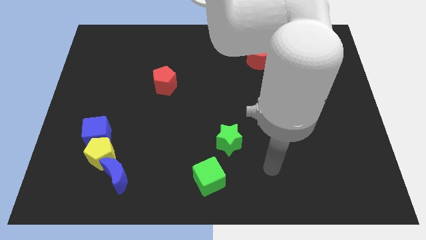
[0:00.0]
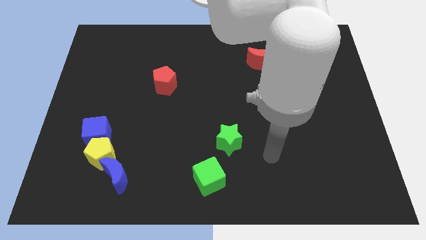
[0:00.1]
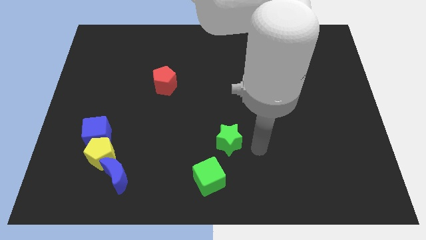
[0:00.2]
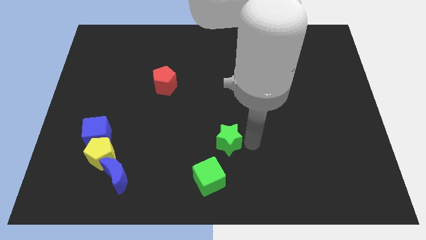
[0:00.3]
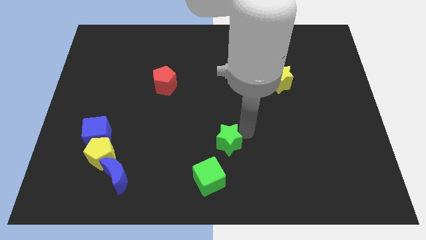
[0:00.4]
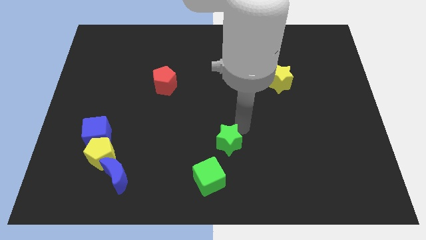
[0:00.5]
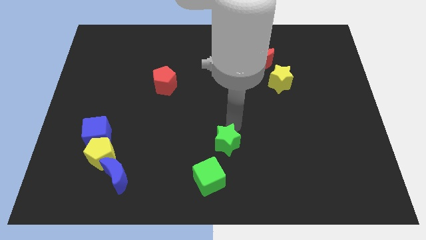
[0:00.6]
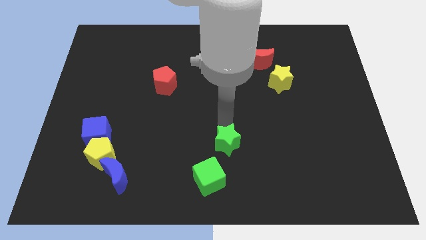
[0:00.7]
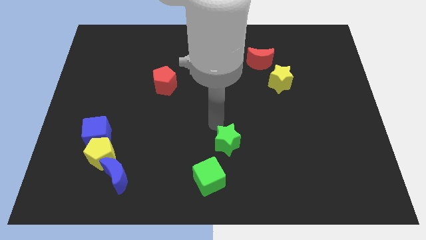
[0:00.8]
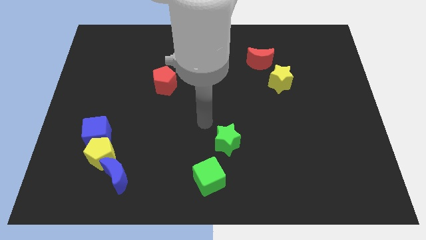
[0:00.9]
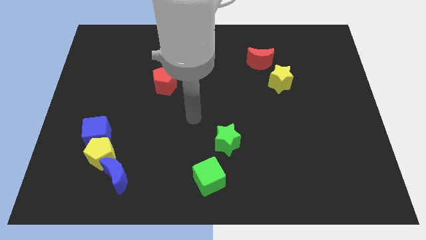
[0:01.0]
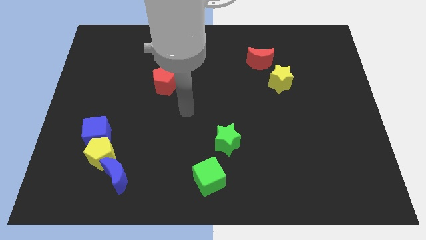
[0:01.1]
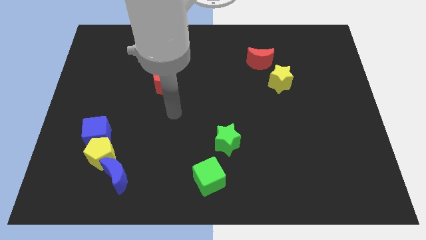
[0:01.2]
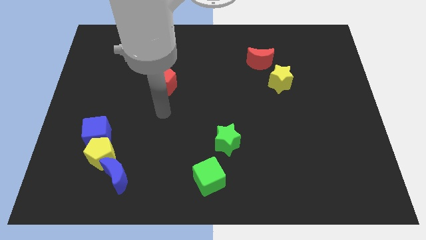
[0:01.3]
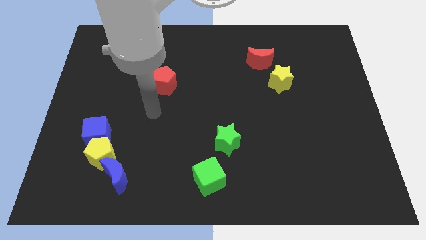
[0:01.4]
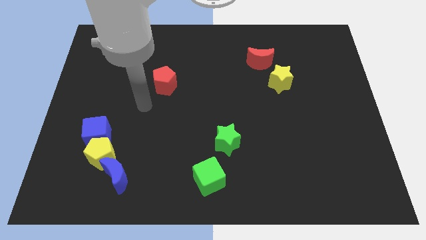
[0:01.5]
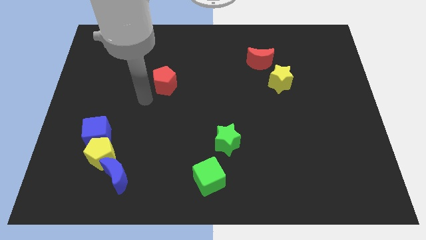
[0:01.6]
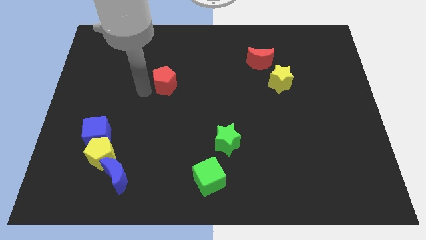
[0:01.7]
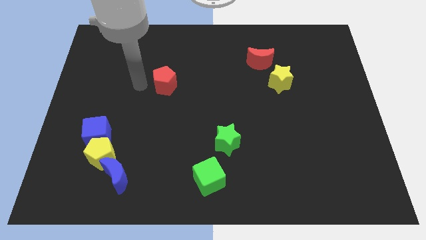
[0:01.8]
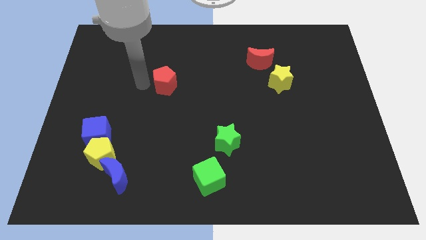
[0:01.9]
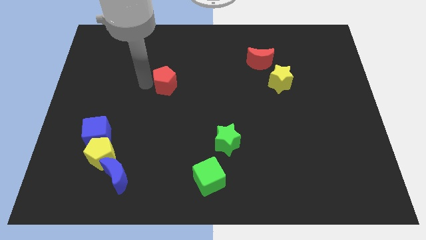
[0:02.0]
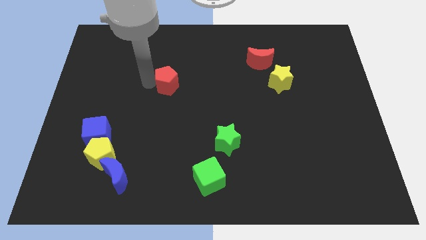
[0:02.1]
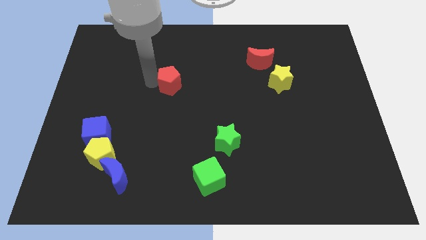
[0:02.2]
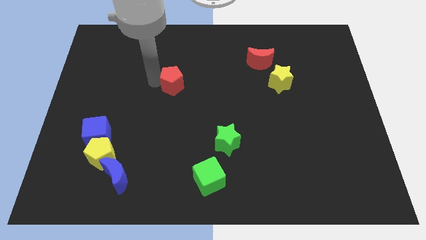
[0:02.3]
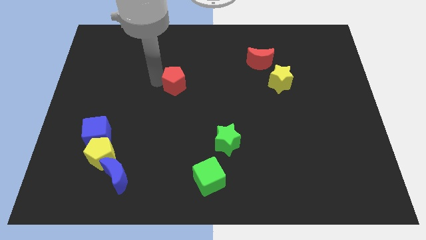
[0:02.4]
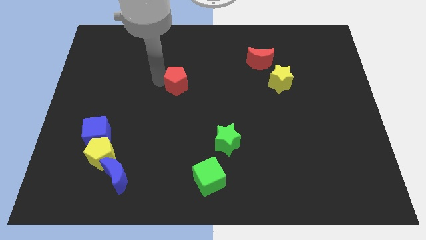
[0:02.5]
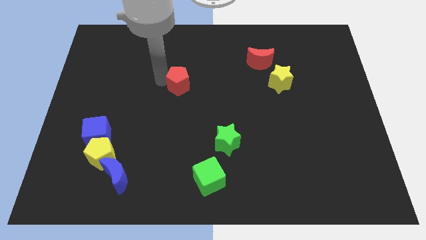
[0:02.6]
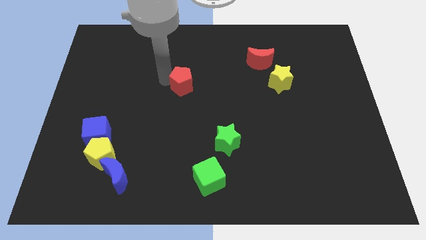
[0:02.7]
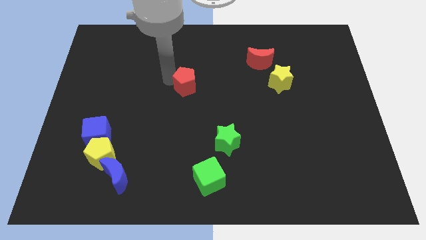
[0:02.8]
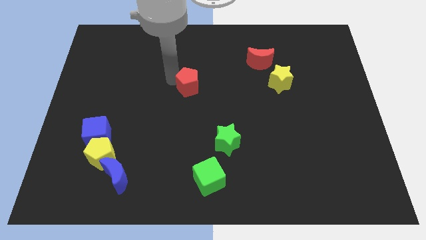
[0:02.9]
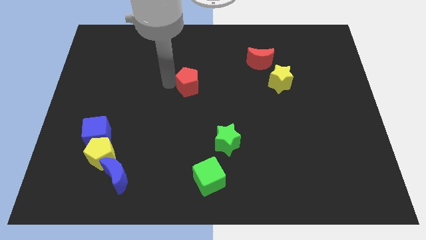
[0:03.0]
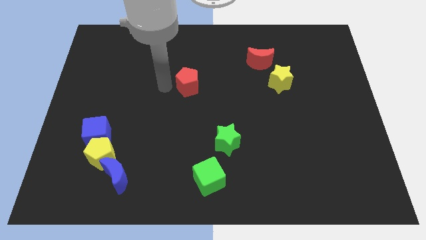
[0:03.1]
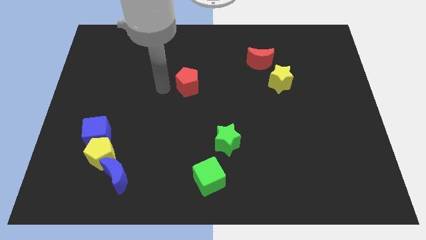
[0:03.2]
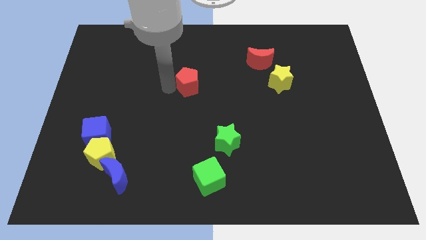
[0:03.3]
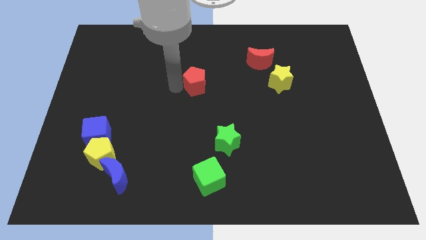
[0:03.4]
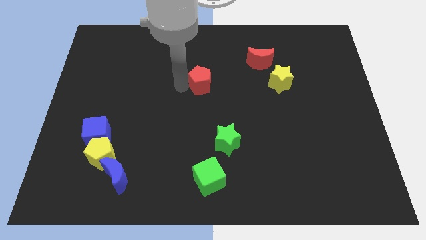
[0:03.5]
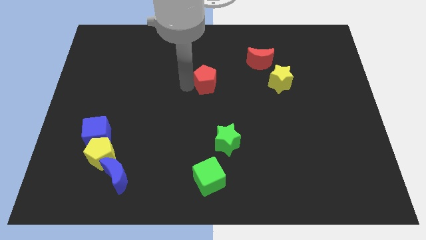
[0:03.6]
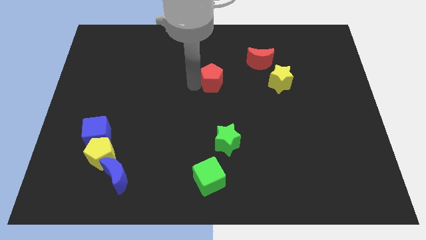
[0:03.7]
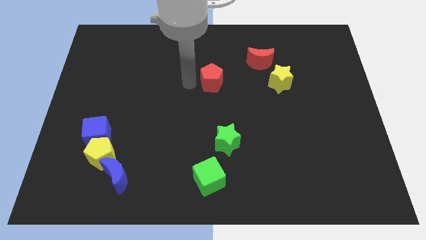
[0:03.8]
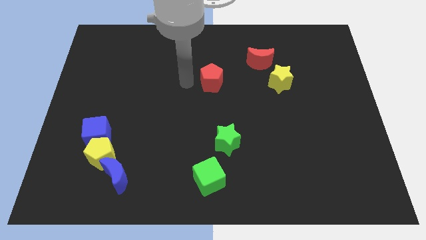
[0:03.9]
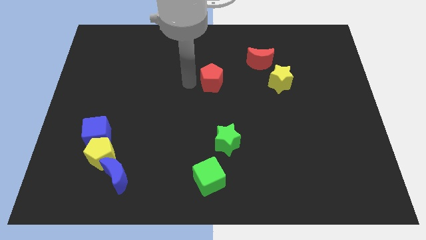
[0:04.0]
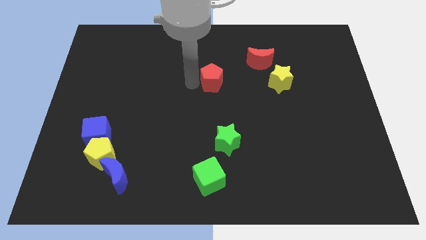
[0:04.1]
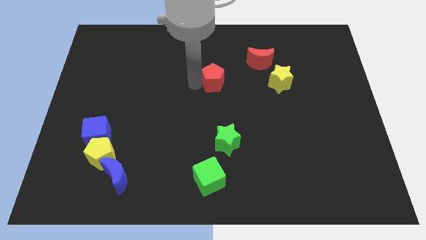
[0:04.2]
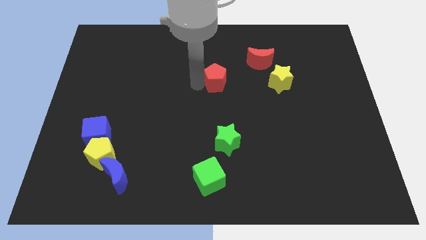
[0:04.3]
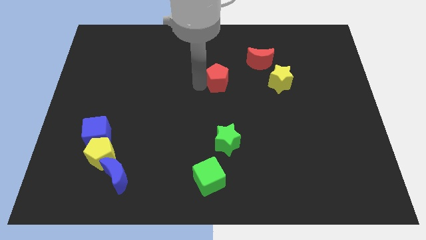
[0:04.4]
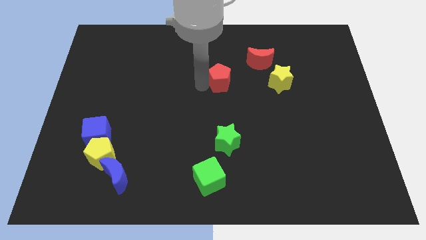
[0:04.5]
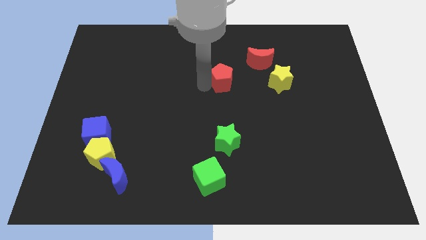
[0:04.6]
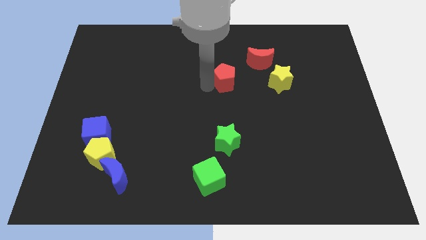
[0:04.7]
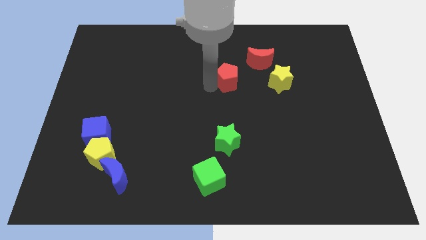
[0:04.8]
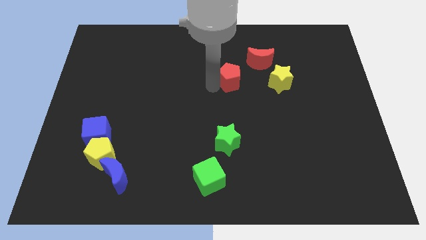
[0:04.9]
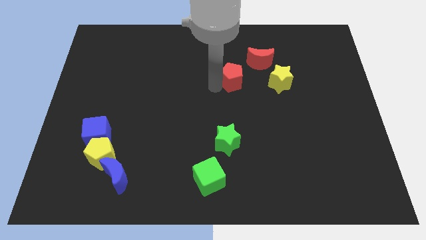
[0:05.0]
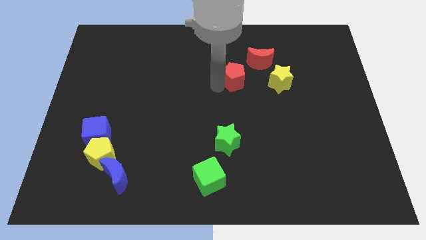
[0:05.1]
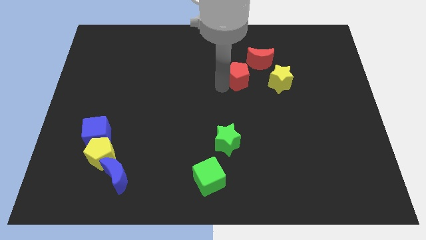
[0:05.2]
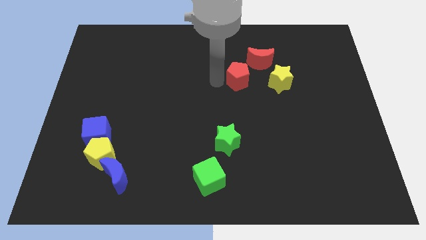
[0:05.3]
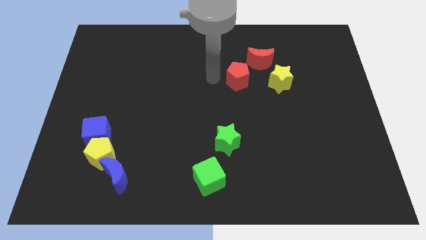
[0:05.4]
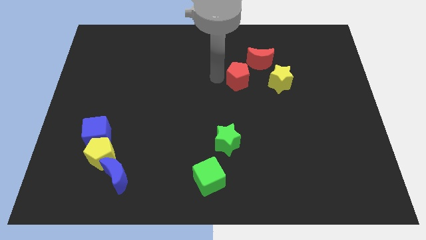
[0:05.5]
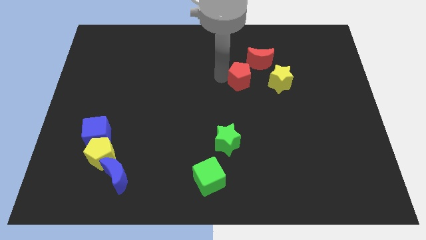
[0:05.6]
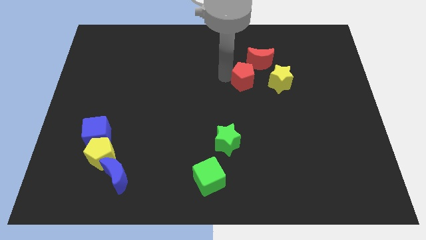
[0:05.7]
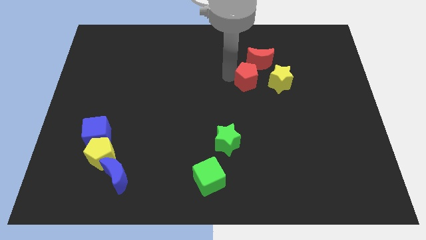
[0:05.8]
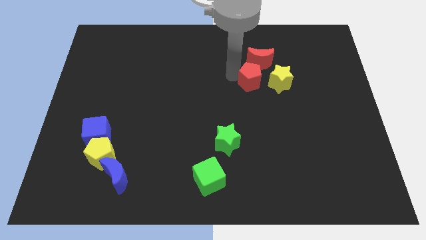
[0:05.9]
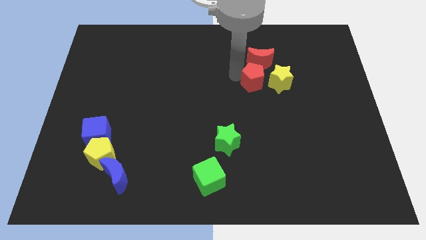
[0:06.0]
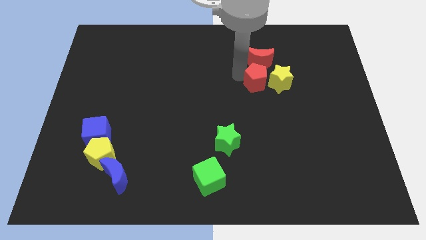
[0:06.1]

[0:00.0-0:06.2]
slide the red pentagon to the yellow star

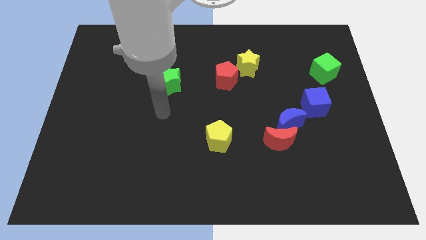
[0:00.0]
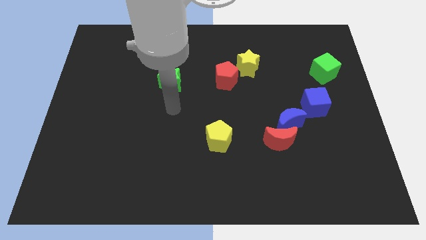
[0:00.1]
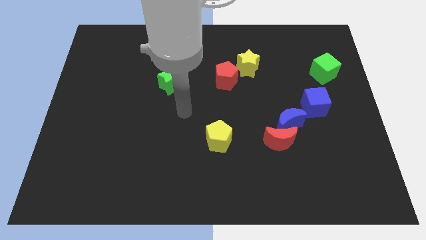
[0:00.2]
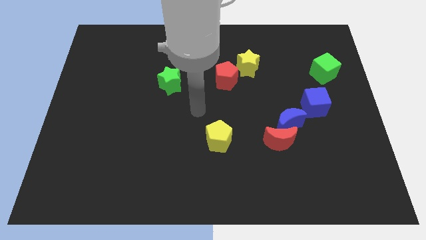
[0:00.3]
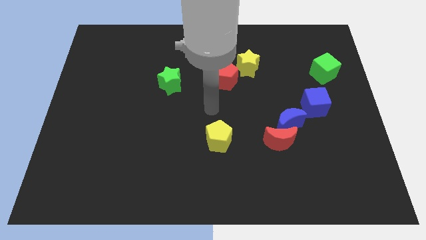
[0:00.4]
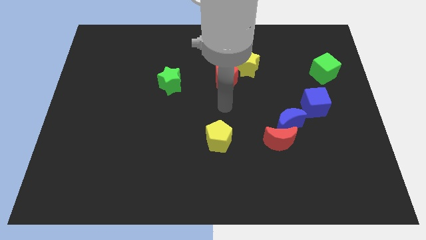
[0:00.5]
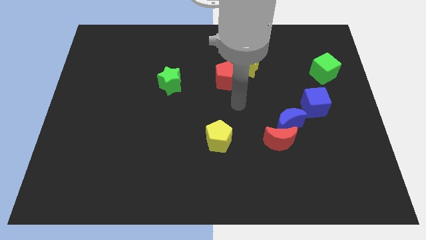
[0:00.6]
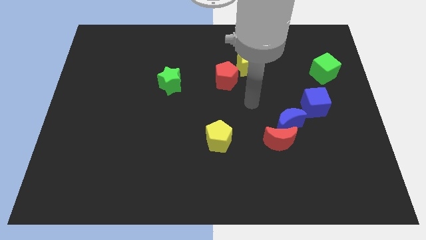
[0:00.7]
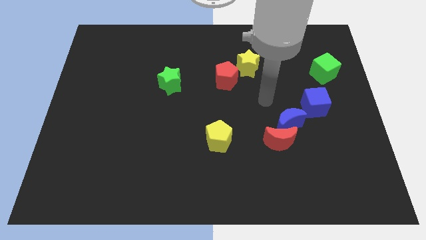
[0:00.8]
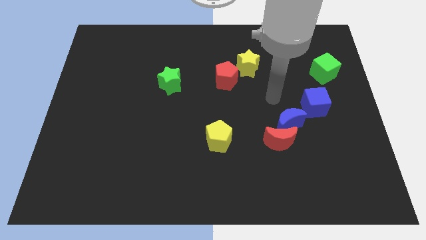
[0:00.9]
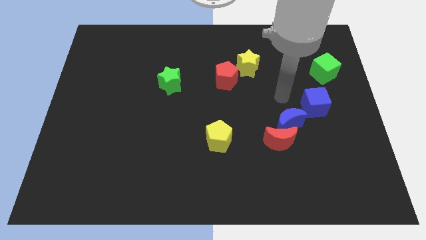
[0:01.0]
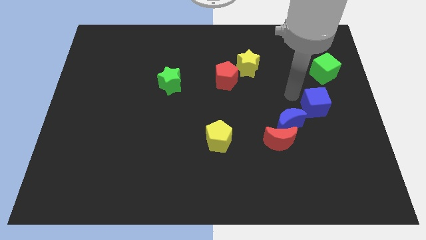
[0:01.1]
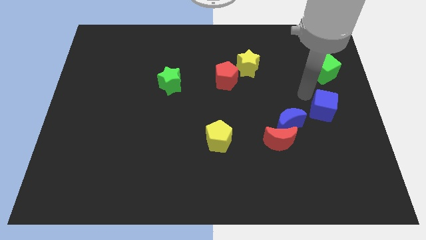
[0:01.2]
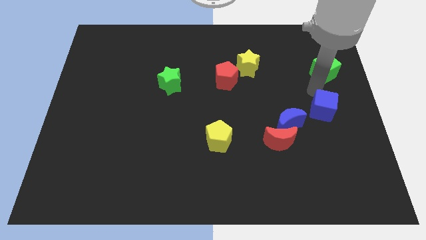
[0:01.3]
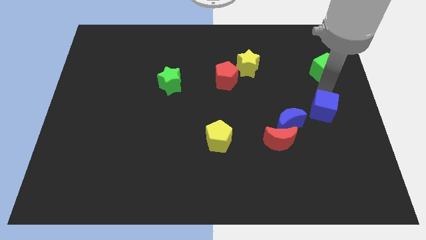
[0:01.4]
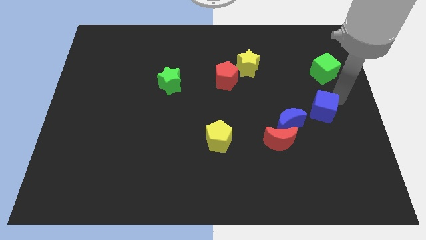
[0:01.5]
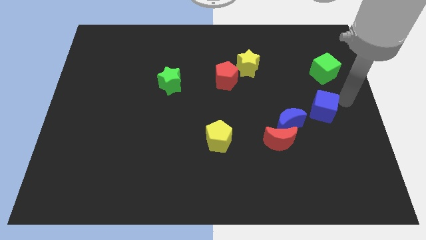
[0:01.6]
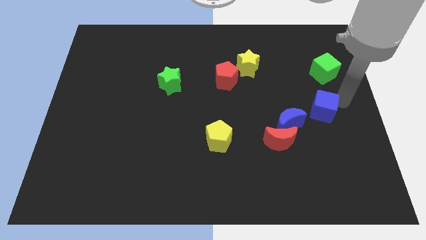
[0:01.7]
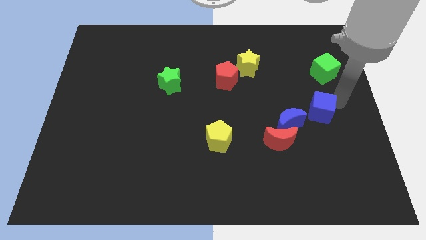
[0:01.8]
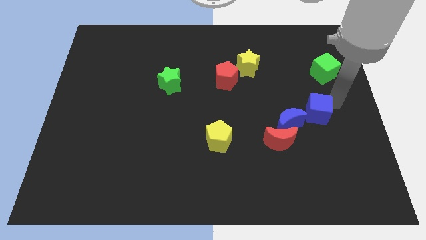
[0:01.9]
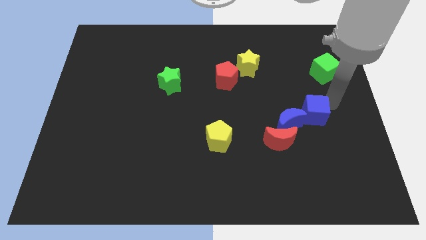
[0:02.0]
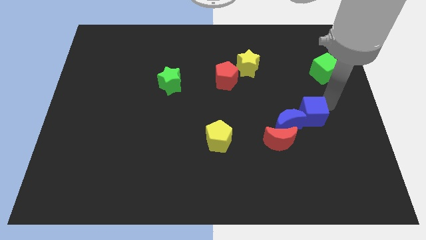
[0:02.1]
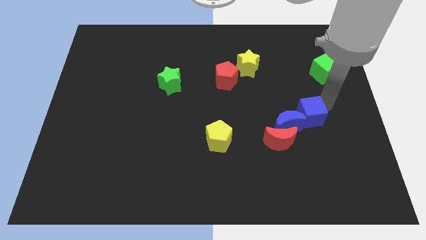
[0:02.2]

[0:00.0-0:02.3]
put the blue cube close to the blue moon
